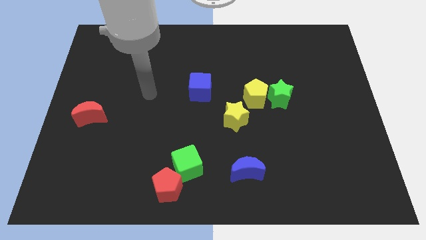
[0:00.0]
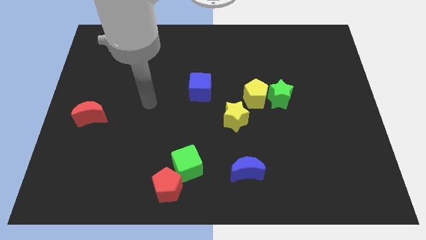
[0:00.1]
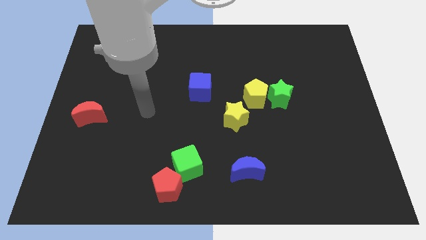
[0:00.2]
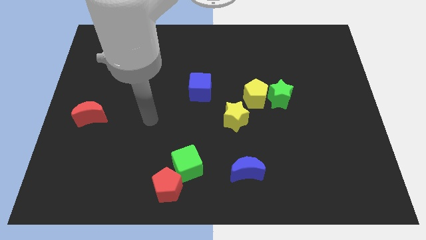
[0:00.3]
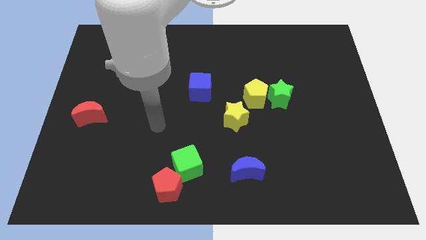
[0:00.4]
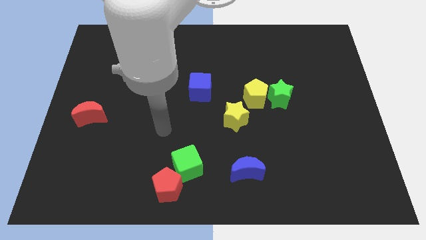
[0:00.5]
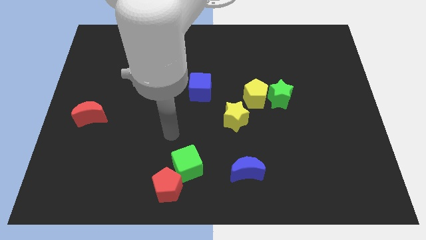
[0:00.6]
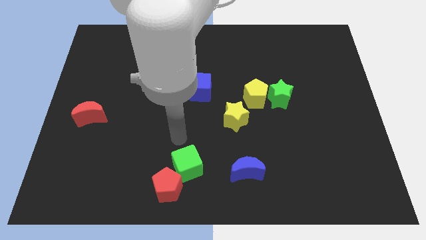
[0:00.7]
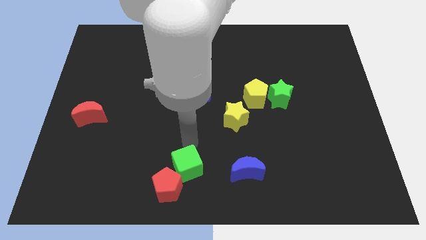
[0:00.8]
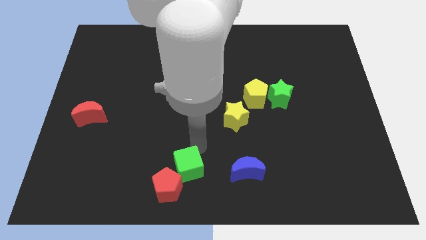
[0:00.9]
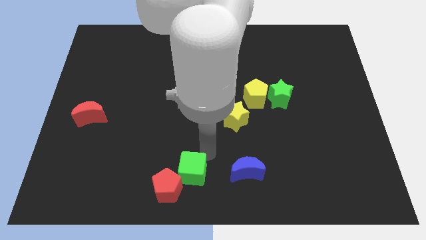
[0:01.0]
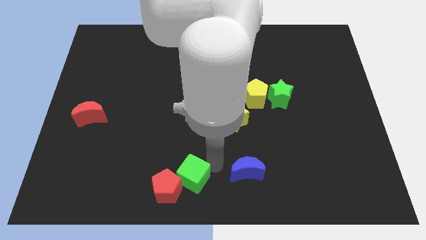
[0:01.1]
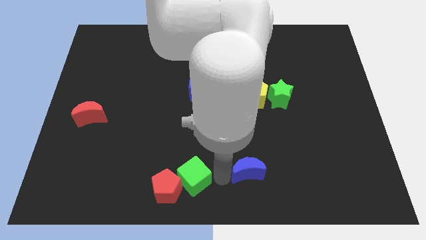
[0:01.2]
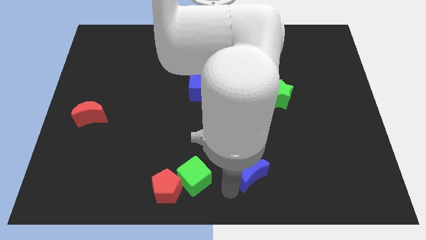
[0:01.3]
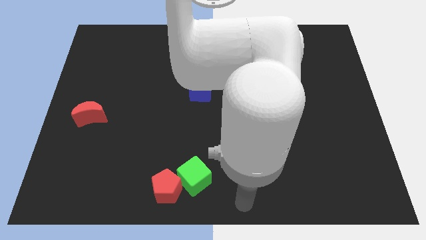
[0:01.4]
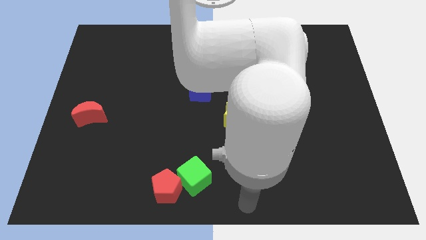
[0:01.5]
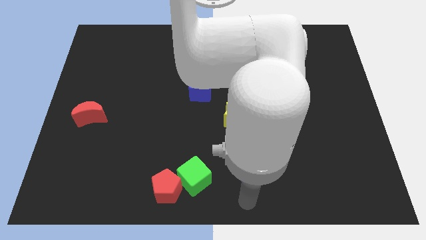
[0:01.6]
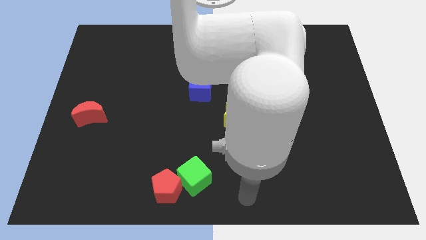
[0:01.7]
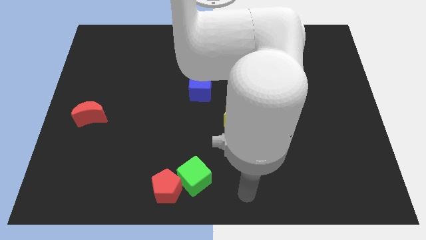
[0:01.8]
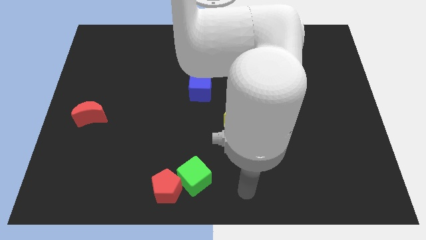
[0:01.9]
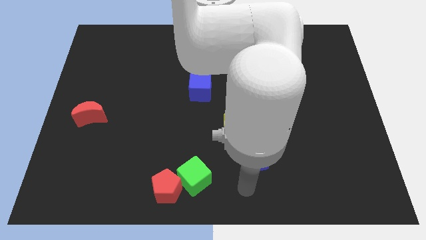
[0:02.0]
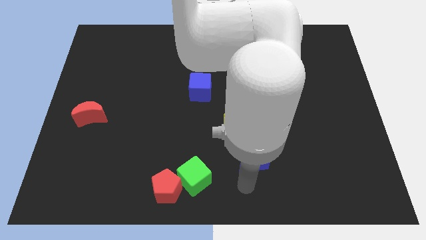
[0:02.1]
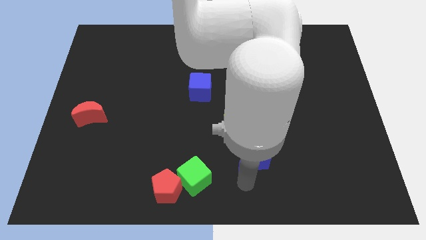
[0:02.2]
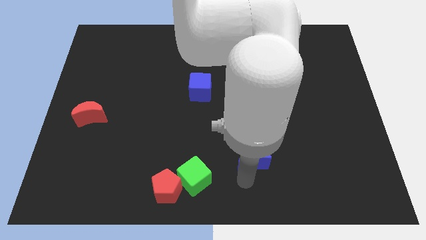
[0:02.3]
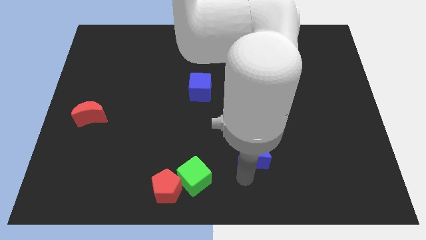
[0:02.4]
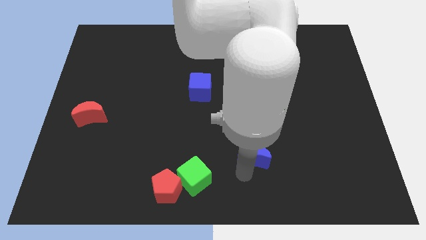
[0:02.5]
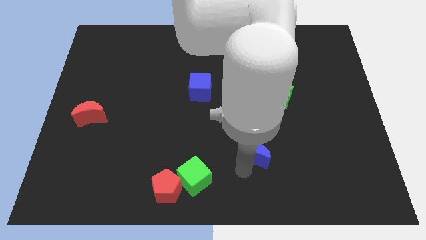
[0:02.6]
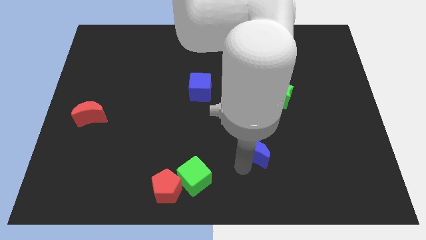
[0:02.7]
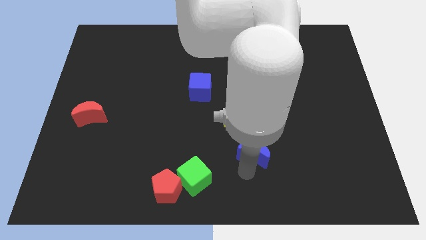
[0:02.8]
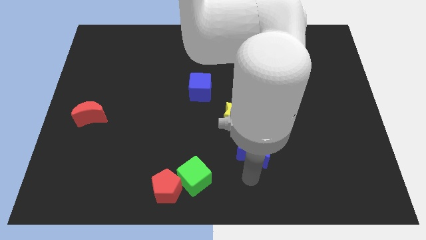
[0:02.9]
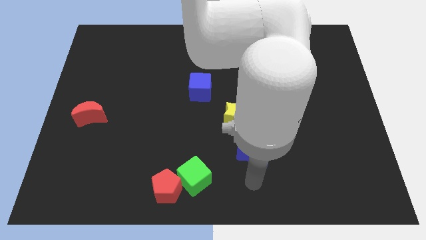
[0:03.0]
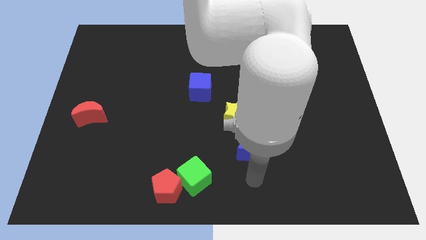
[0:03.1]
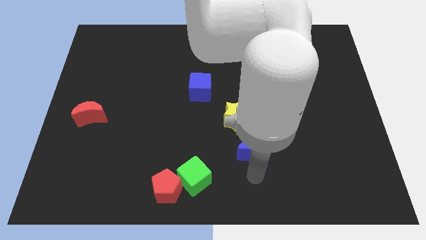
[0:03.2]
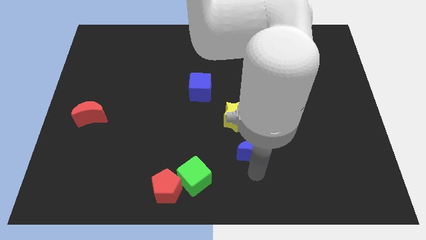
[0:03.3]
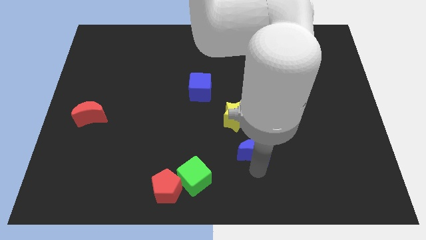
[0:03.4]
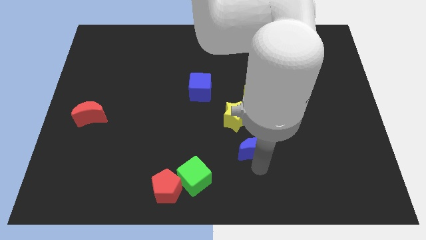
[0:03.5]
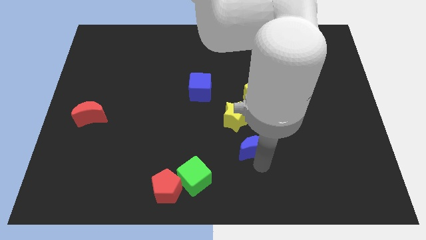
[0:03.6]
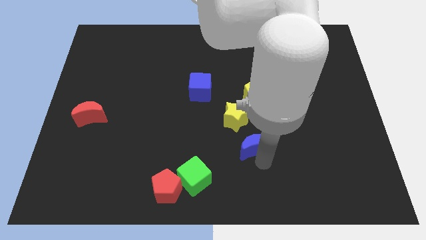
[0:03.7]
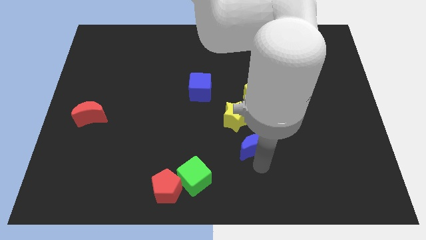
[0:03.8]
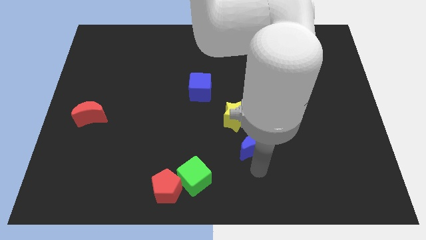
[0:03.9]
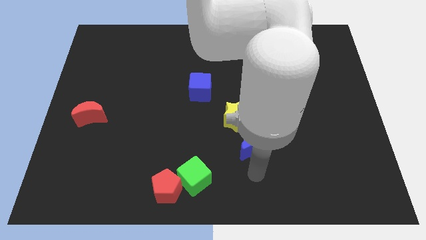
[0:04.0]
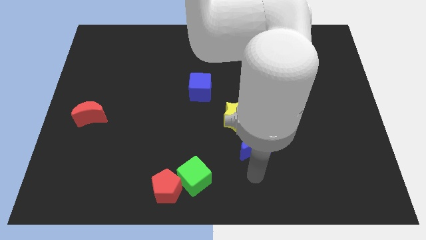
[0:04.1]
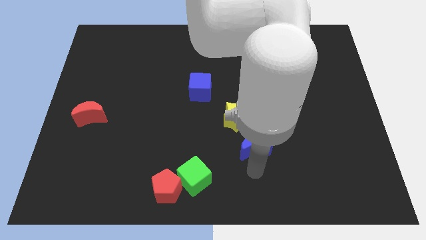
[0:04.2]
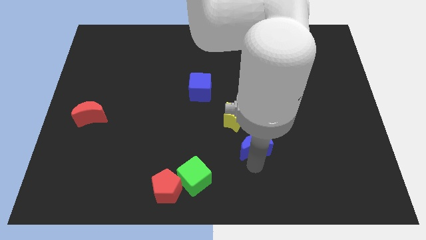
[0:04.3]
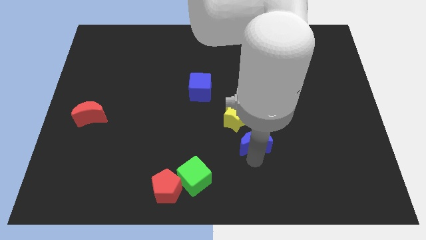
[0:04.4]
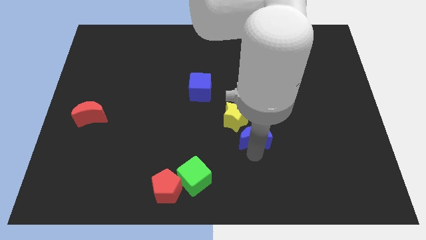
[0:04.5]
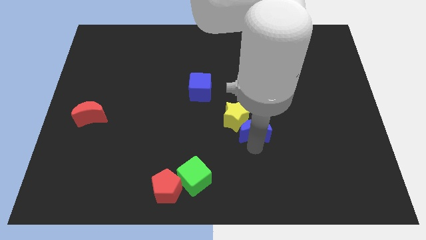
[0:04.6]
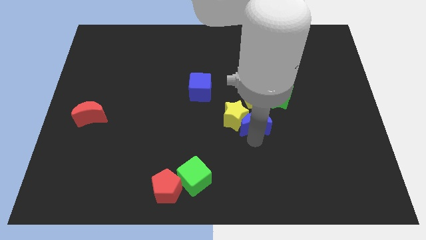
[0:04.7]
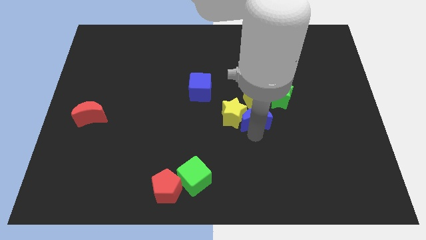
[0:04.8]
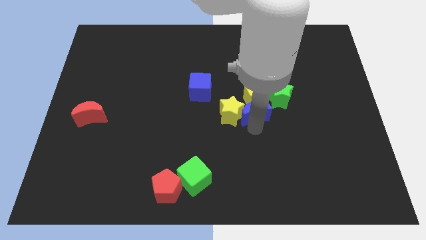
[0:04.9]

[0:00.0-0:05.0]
push the blue moon to the yellow pentagon

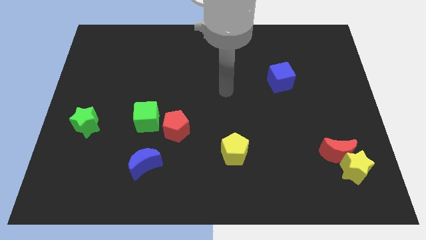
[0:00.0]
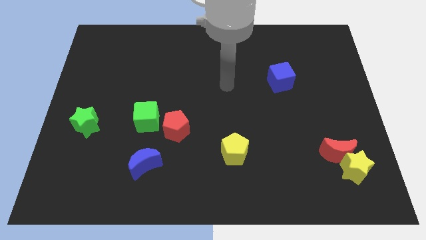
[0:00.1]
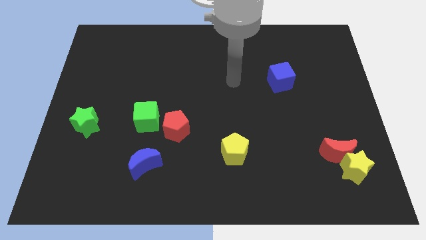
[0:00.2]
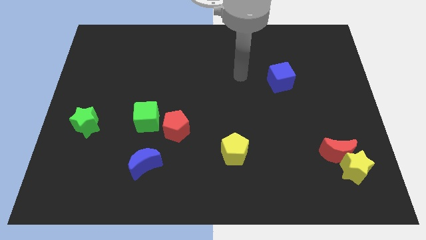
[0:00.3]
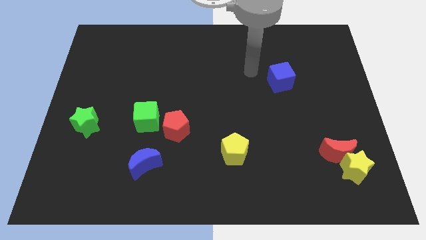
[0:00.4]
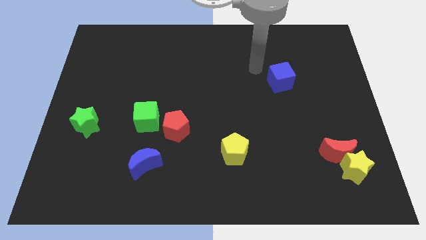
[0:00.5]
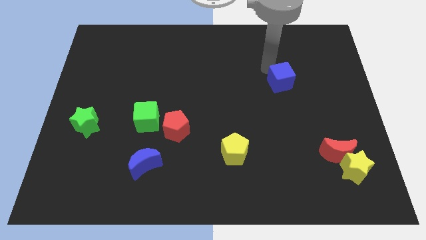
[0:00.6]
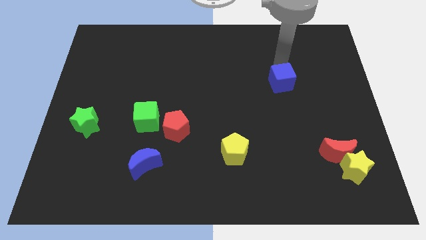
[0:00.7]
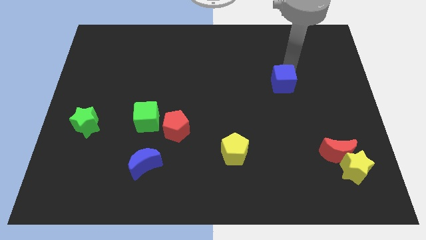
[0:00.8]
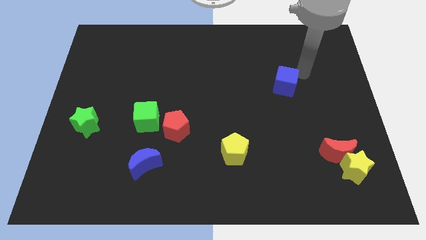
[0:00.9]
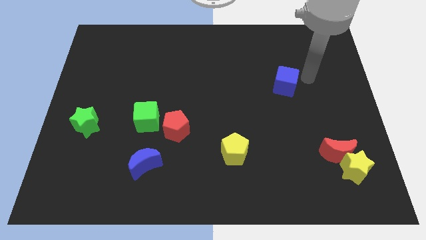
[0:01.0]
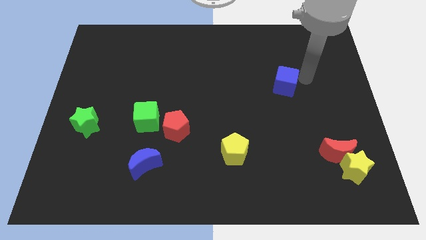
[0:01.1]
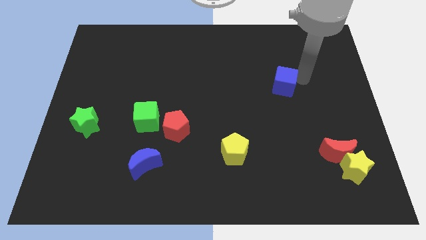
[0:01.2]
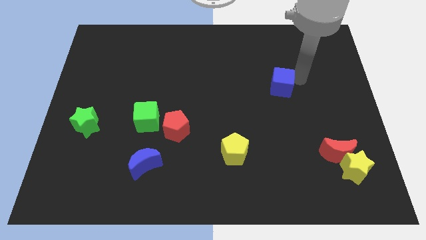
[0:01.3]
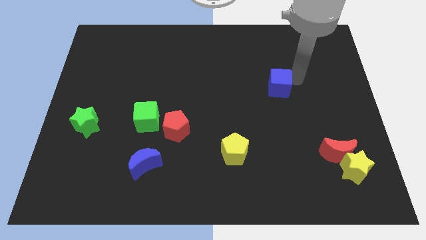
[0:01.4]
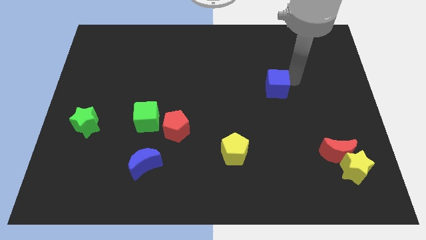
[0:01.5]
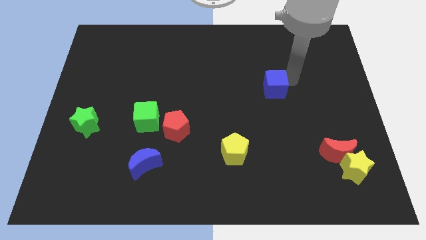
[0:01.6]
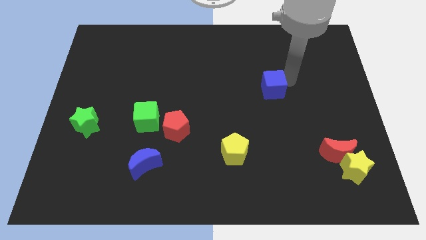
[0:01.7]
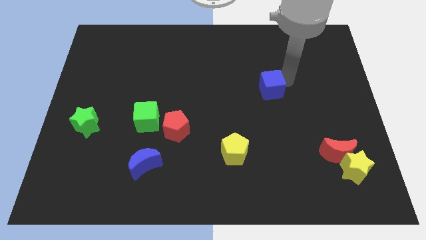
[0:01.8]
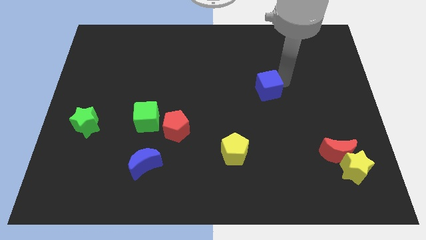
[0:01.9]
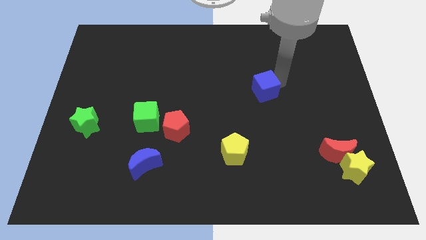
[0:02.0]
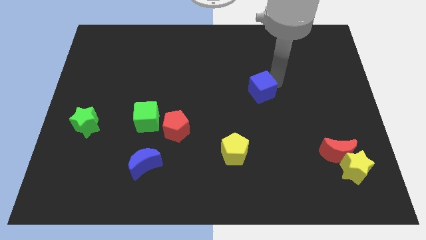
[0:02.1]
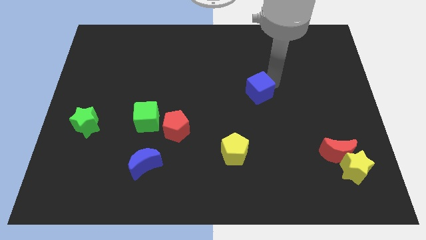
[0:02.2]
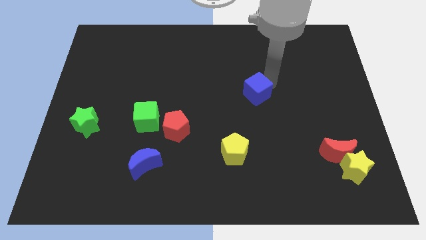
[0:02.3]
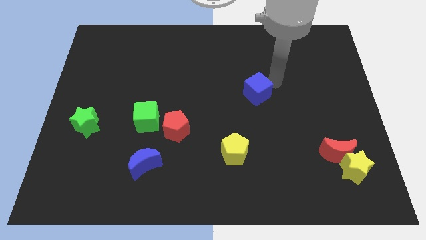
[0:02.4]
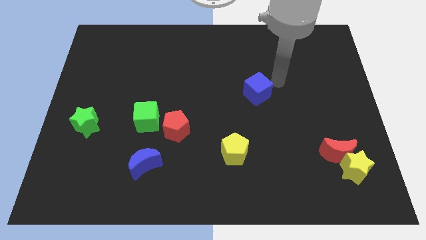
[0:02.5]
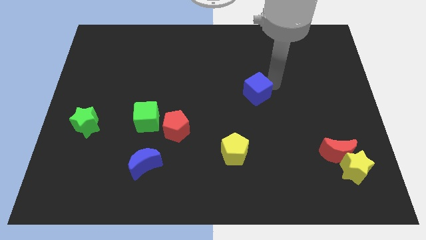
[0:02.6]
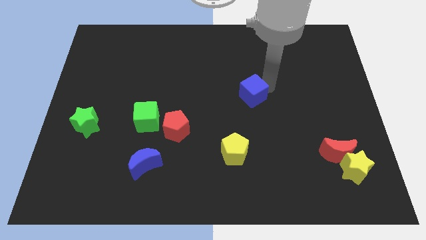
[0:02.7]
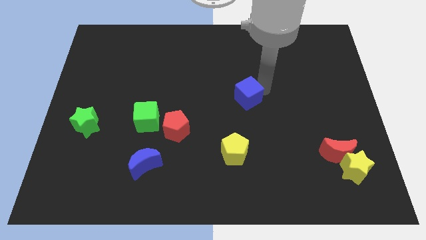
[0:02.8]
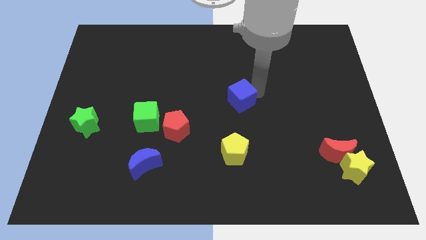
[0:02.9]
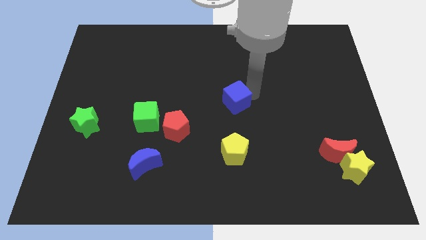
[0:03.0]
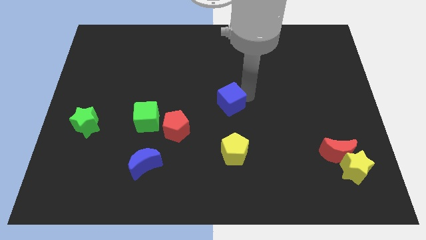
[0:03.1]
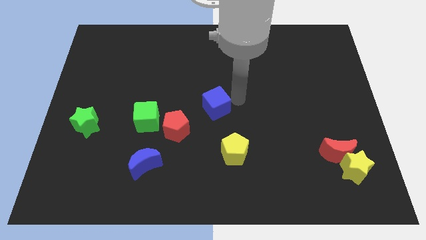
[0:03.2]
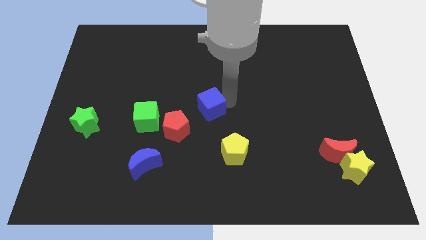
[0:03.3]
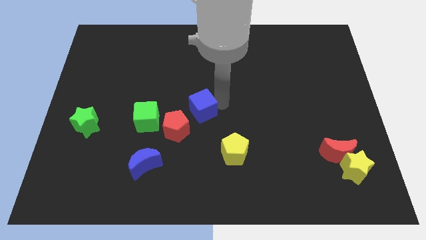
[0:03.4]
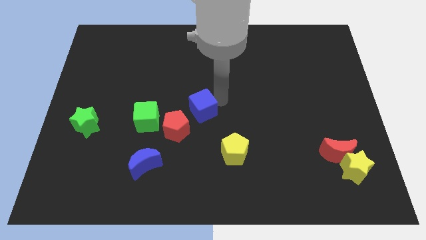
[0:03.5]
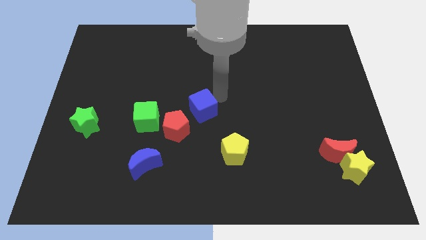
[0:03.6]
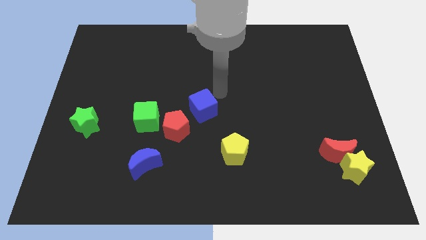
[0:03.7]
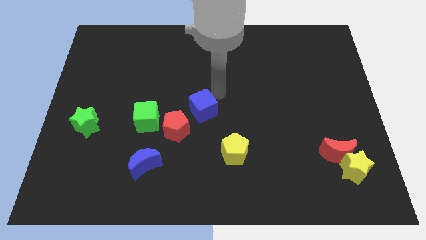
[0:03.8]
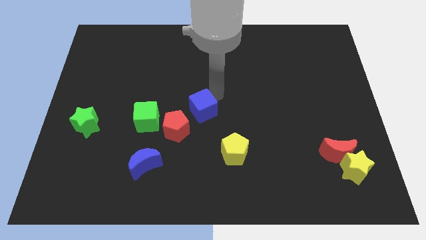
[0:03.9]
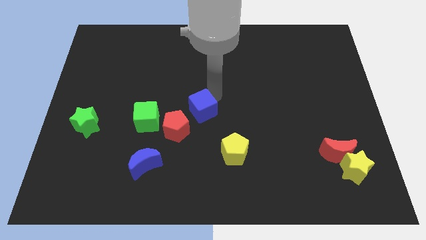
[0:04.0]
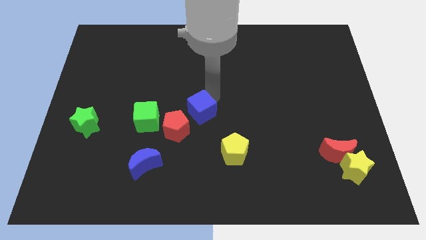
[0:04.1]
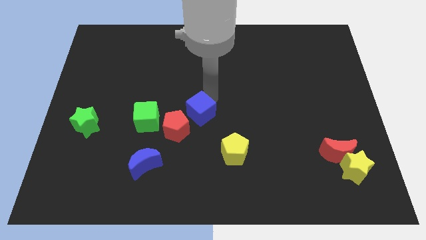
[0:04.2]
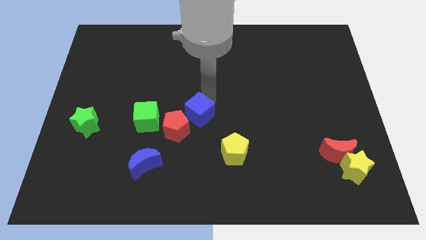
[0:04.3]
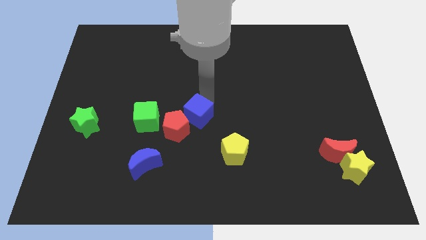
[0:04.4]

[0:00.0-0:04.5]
push the blue cube close to the red pentagon
